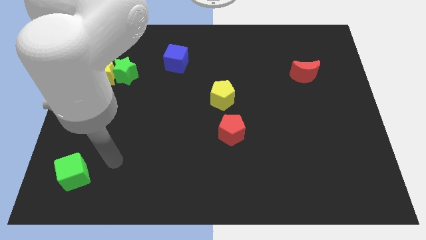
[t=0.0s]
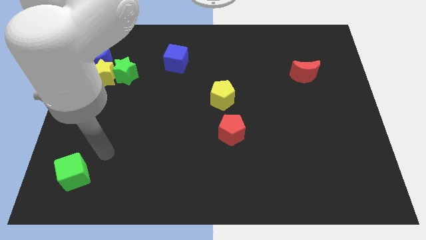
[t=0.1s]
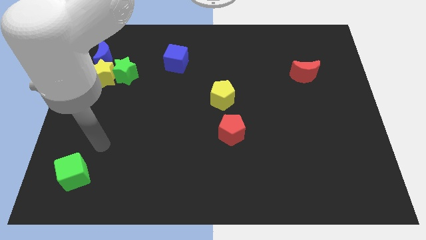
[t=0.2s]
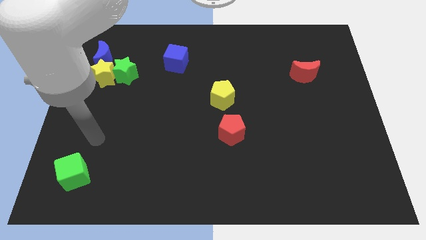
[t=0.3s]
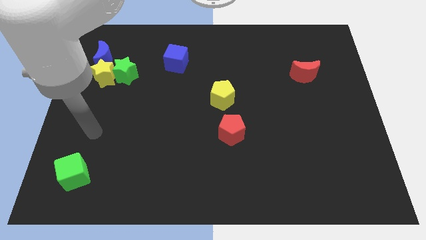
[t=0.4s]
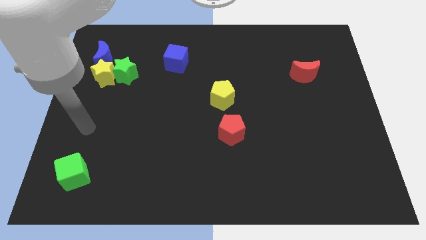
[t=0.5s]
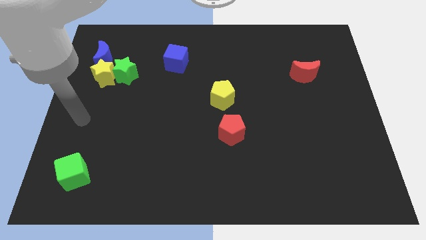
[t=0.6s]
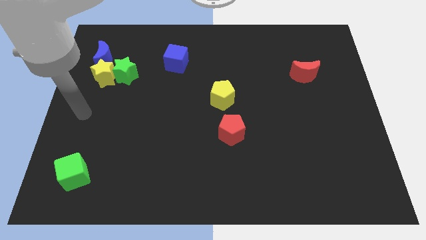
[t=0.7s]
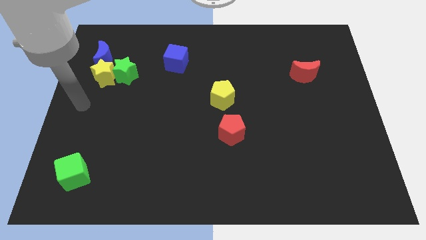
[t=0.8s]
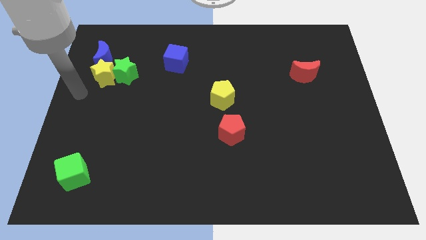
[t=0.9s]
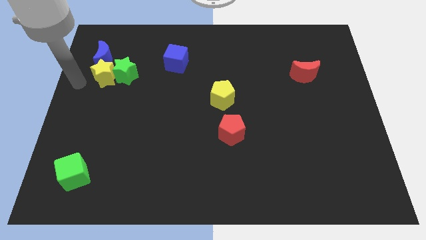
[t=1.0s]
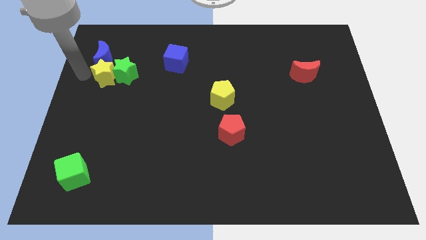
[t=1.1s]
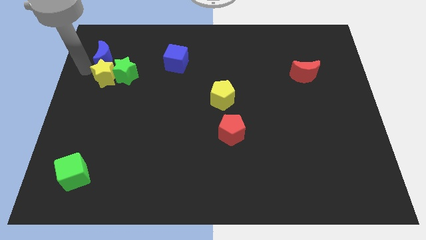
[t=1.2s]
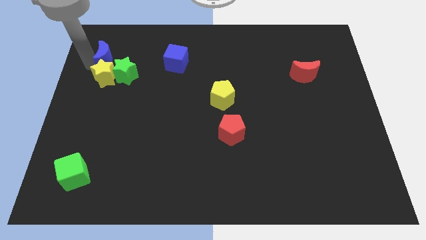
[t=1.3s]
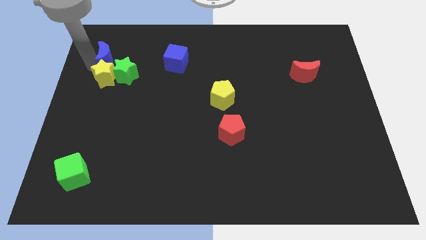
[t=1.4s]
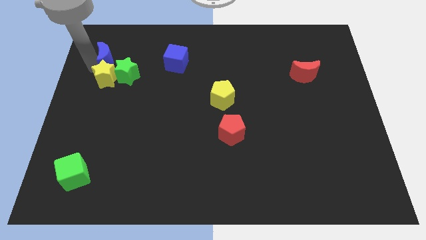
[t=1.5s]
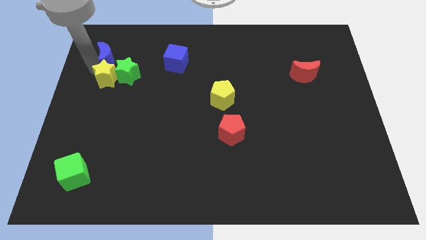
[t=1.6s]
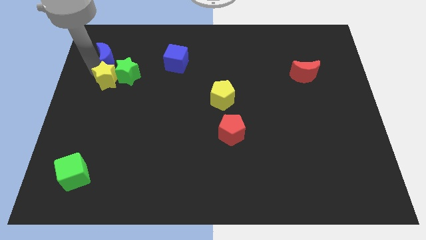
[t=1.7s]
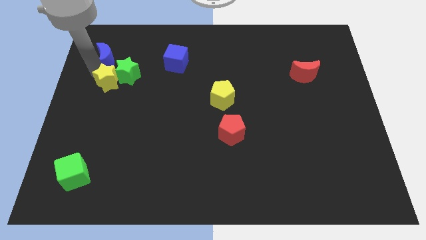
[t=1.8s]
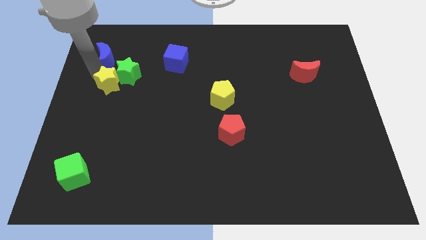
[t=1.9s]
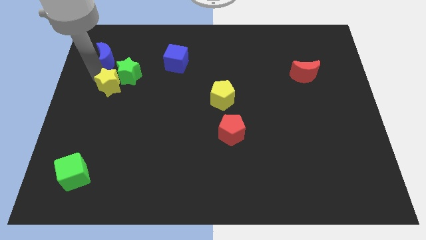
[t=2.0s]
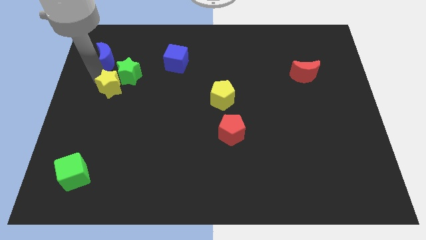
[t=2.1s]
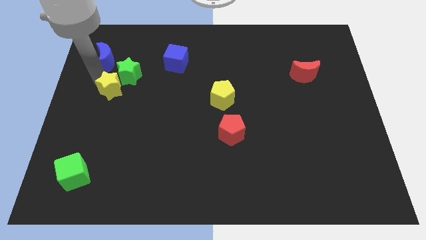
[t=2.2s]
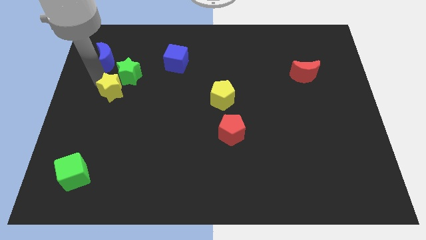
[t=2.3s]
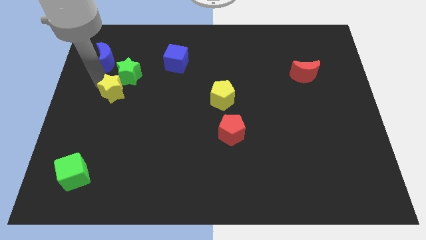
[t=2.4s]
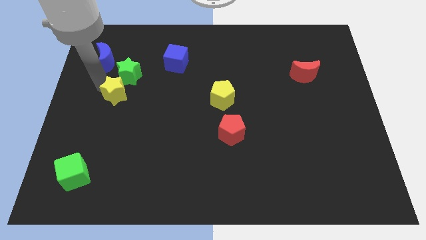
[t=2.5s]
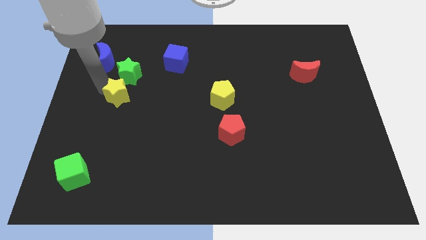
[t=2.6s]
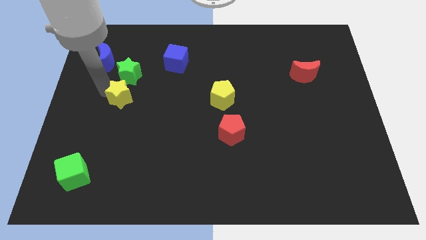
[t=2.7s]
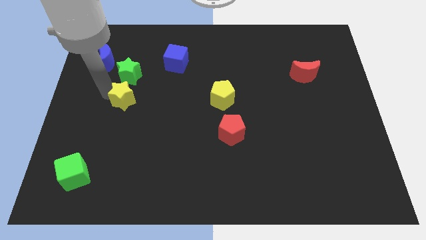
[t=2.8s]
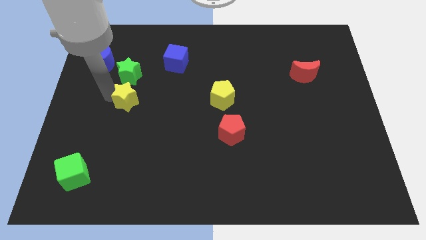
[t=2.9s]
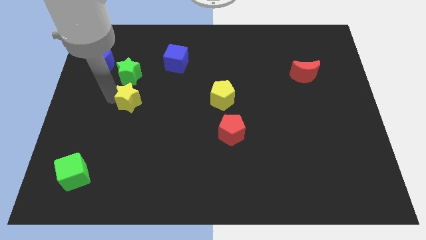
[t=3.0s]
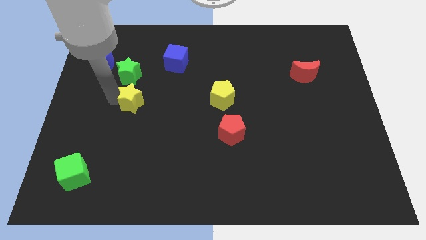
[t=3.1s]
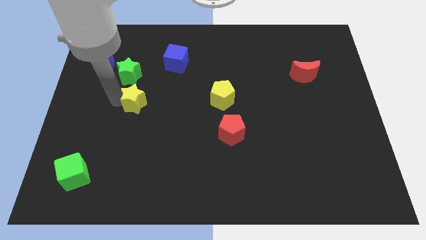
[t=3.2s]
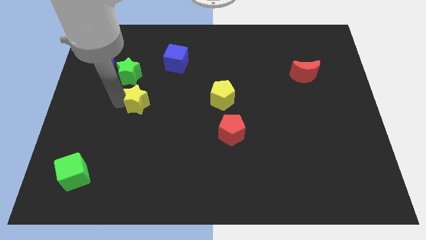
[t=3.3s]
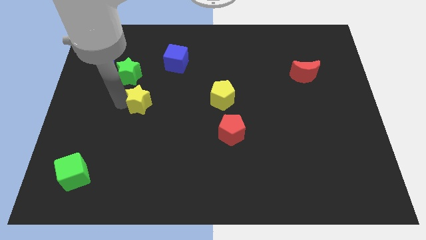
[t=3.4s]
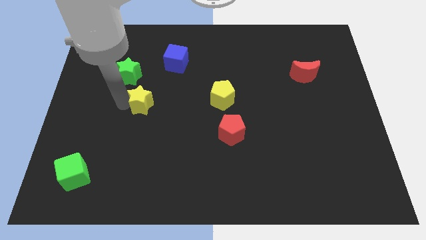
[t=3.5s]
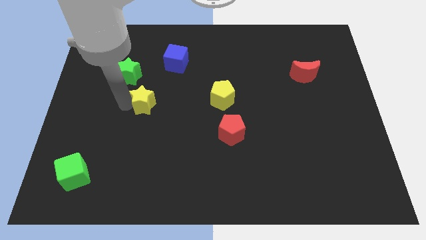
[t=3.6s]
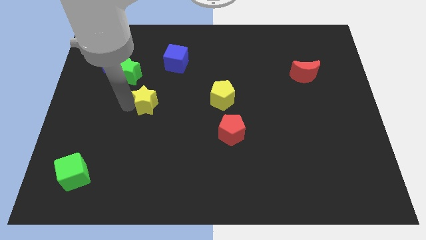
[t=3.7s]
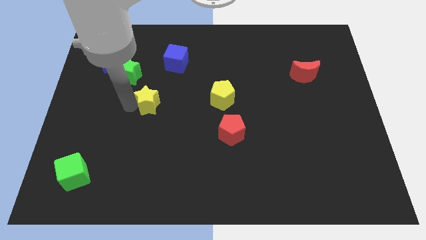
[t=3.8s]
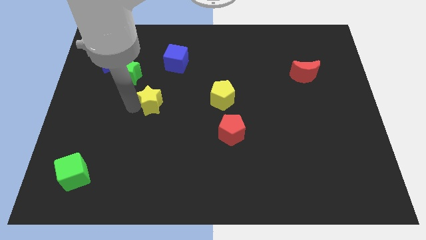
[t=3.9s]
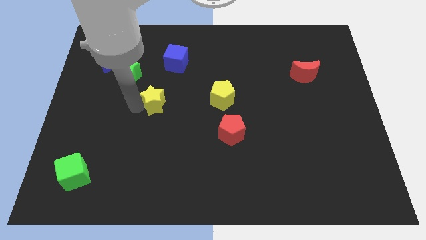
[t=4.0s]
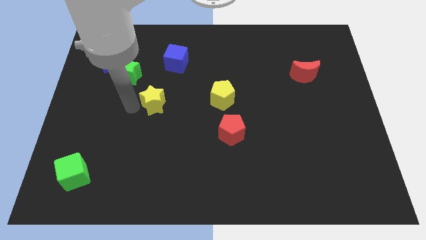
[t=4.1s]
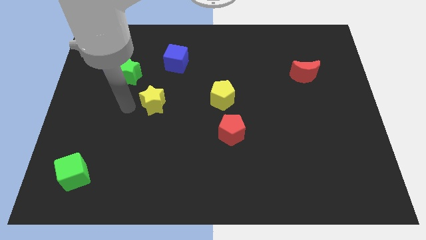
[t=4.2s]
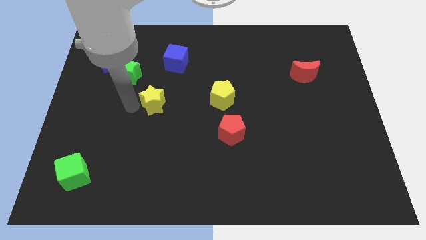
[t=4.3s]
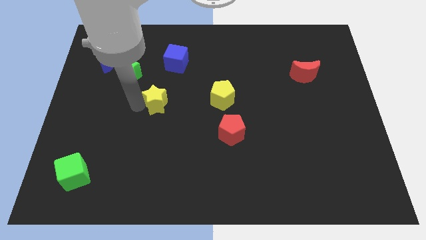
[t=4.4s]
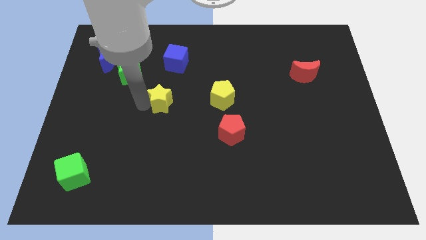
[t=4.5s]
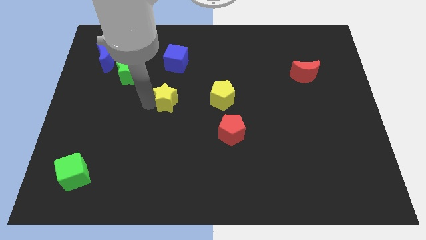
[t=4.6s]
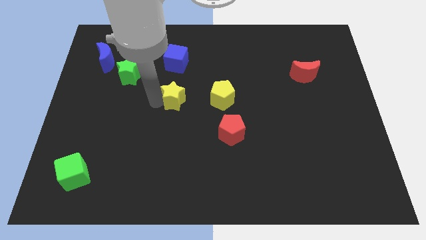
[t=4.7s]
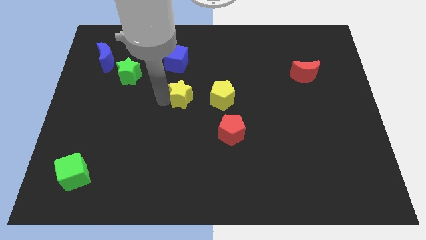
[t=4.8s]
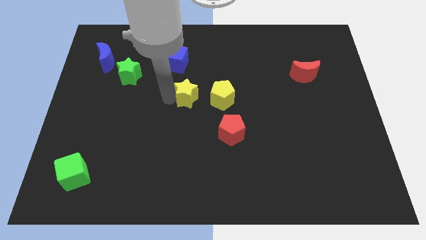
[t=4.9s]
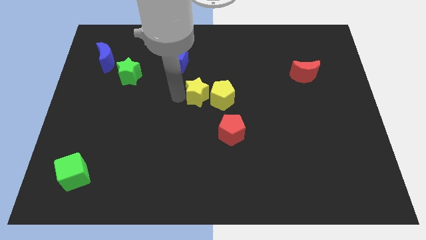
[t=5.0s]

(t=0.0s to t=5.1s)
slide the yellow star to the yellow pentagon

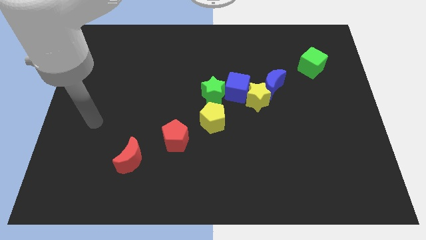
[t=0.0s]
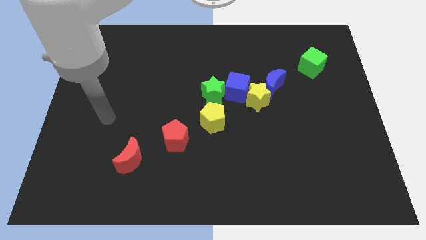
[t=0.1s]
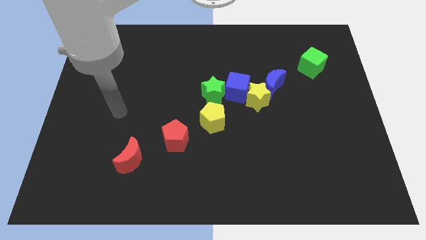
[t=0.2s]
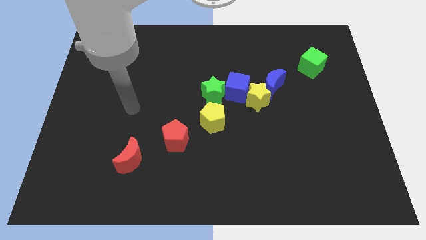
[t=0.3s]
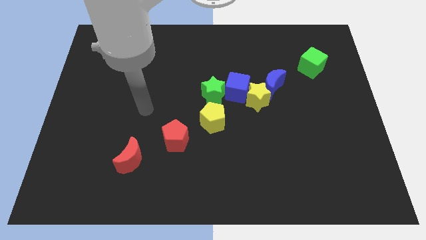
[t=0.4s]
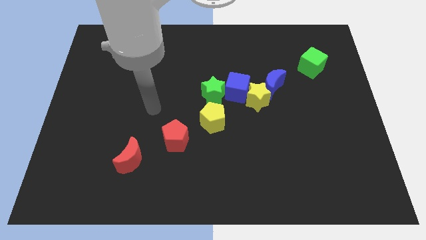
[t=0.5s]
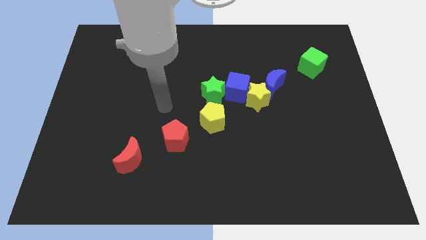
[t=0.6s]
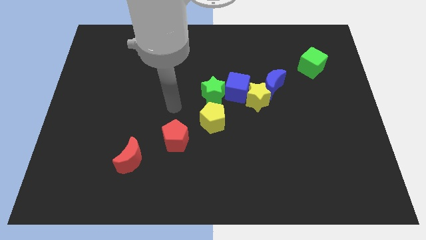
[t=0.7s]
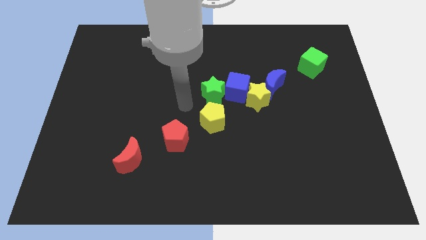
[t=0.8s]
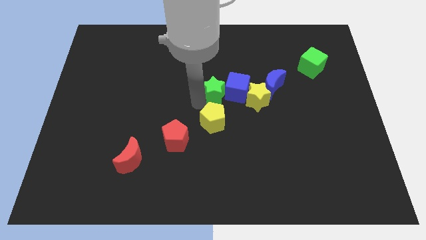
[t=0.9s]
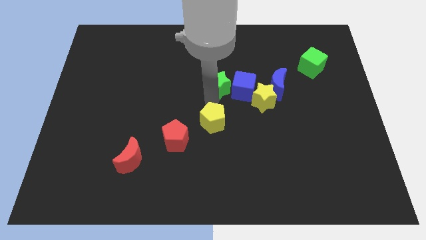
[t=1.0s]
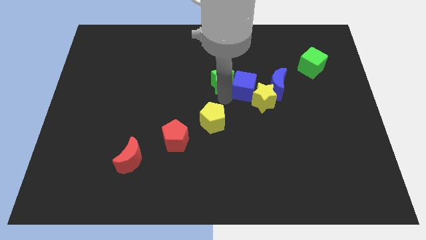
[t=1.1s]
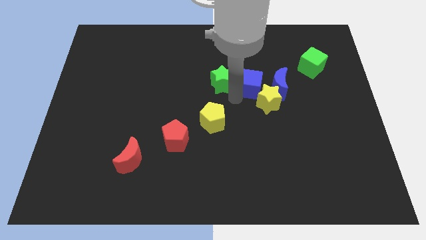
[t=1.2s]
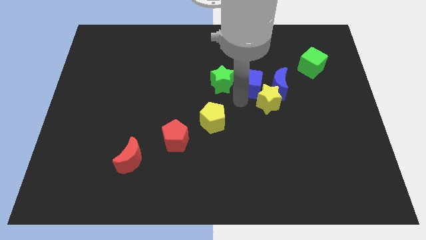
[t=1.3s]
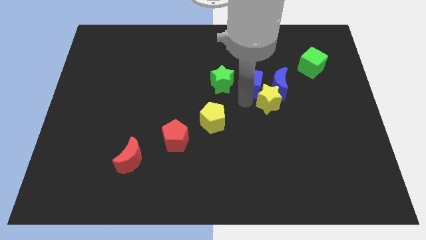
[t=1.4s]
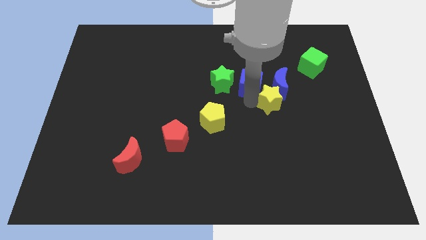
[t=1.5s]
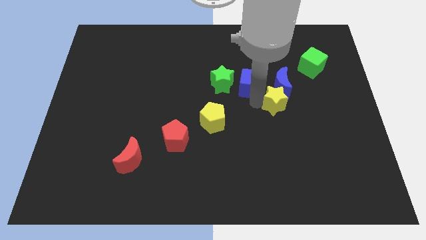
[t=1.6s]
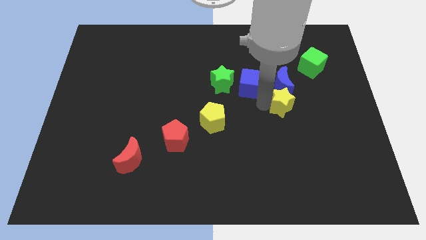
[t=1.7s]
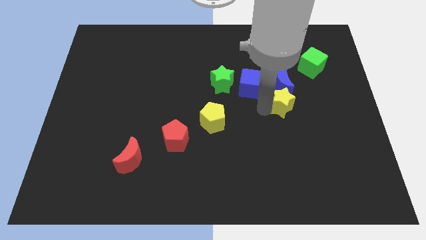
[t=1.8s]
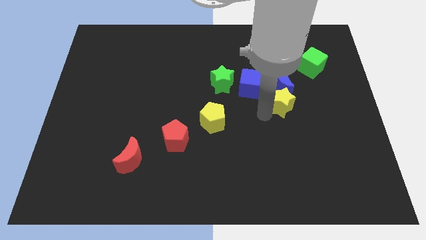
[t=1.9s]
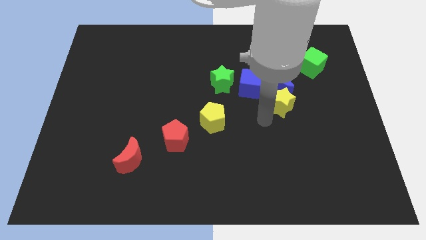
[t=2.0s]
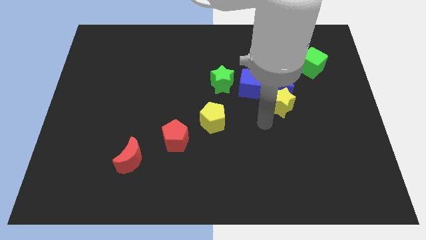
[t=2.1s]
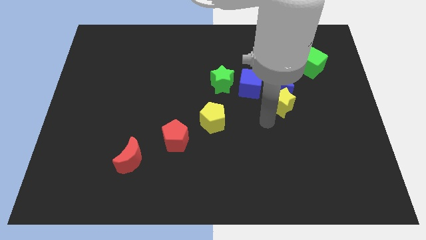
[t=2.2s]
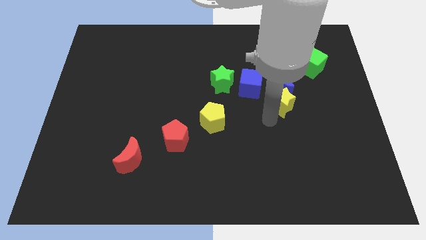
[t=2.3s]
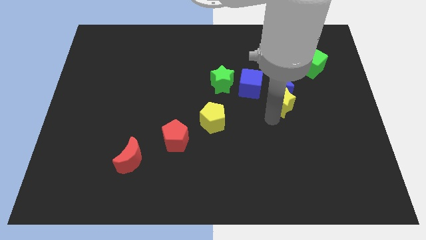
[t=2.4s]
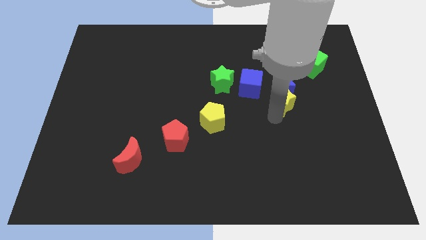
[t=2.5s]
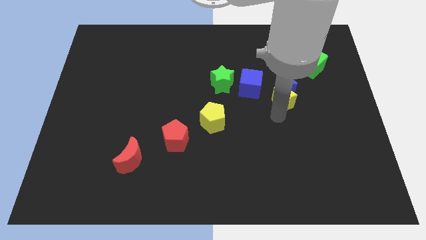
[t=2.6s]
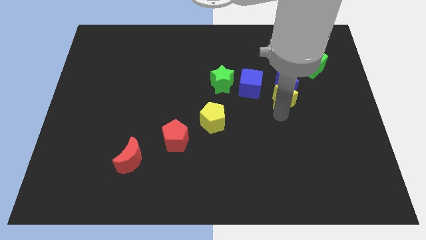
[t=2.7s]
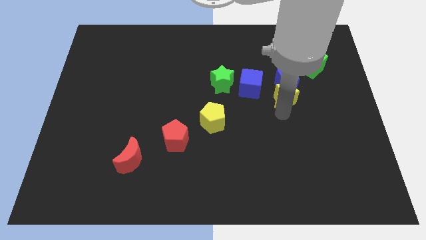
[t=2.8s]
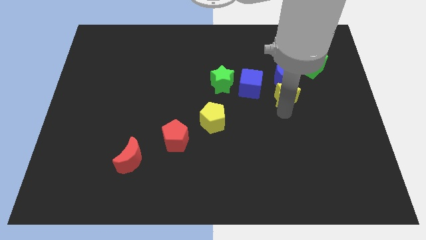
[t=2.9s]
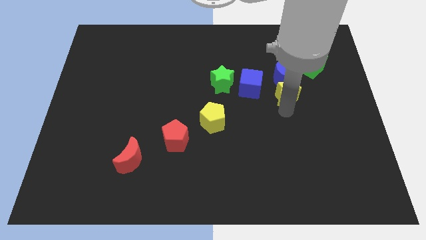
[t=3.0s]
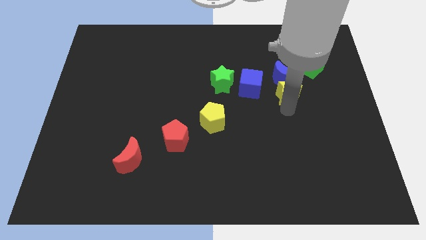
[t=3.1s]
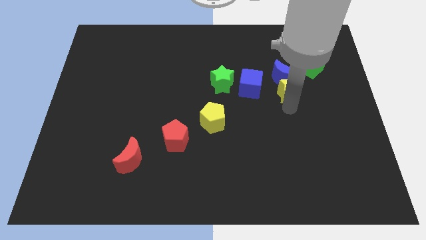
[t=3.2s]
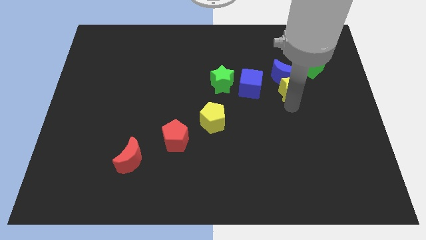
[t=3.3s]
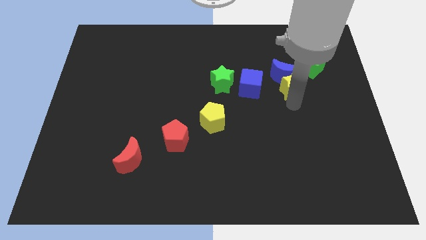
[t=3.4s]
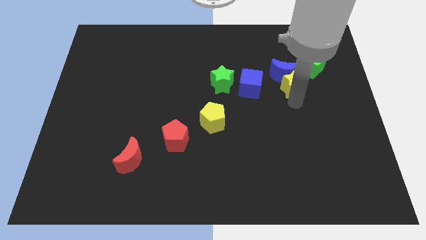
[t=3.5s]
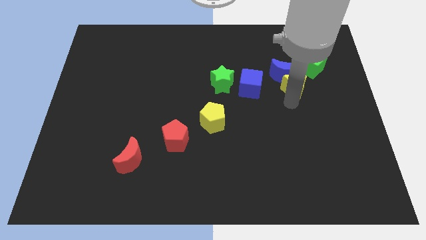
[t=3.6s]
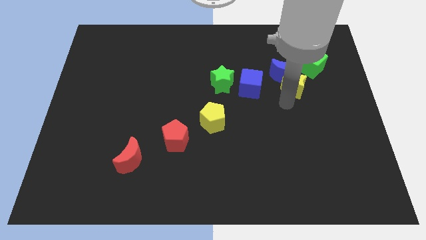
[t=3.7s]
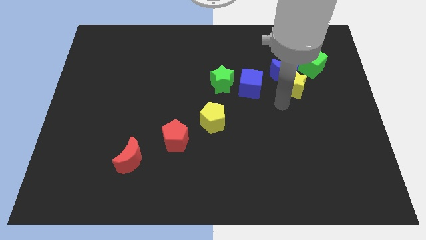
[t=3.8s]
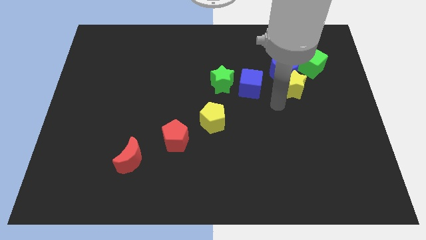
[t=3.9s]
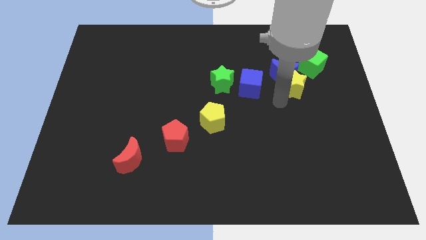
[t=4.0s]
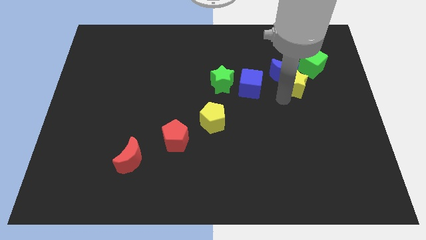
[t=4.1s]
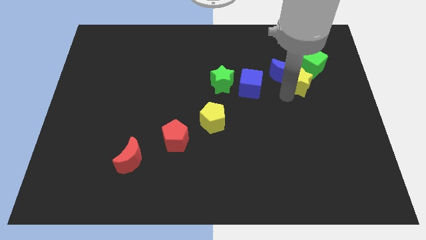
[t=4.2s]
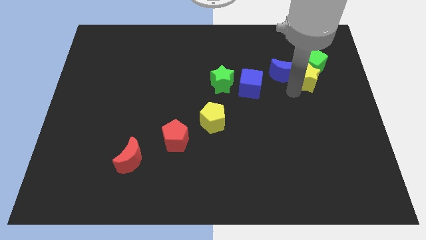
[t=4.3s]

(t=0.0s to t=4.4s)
move the yellow star close to the green cube
